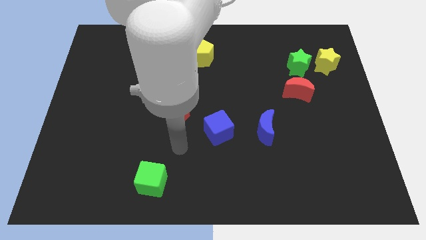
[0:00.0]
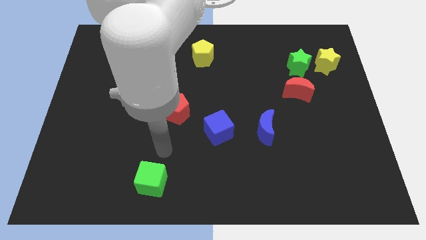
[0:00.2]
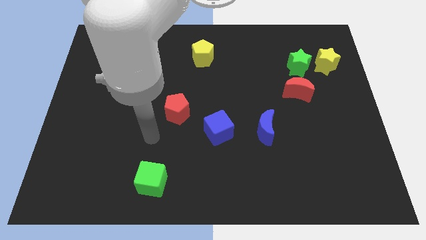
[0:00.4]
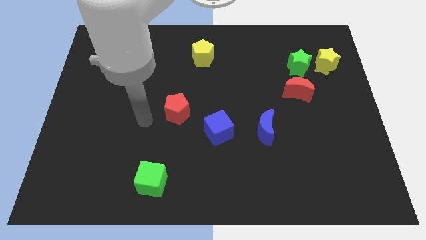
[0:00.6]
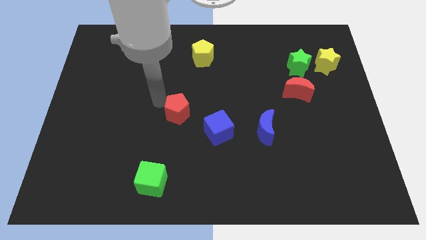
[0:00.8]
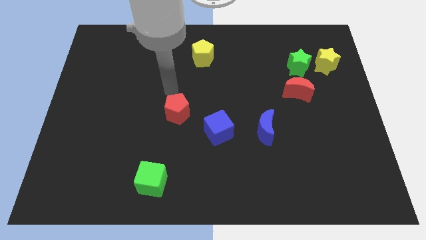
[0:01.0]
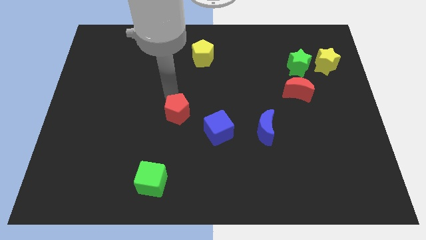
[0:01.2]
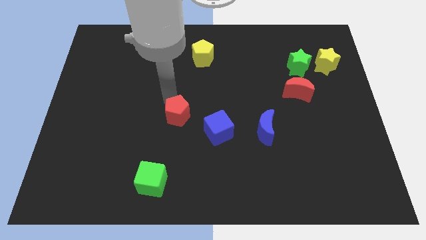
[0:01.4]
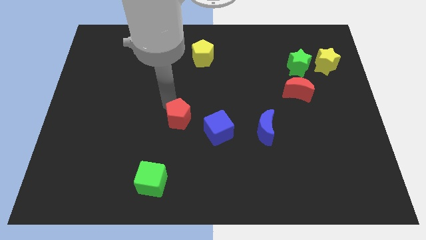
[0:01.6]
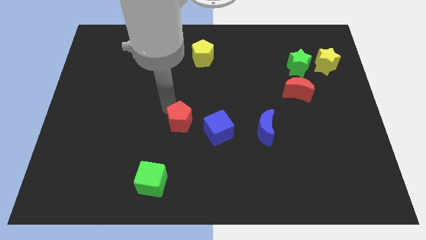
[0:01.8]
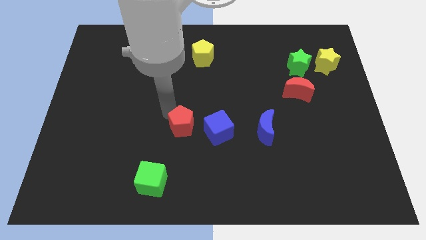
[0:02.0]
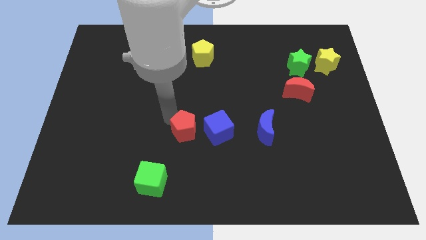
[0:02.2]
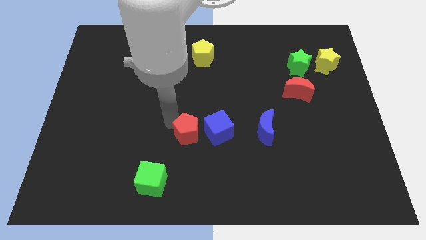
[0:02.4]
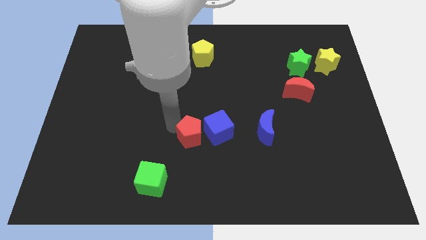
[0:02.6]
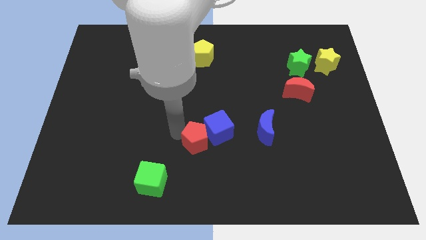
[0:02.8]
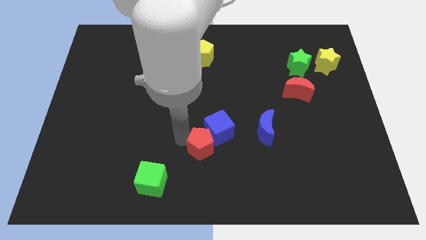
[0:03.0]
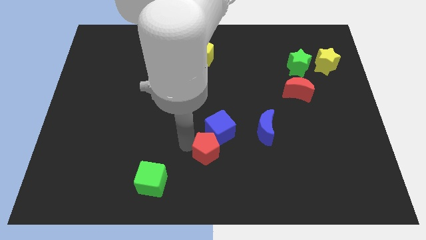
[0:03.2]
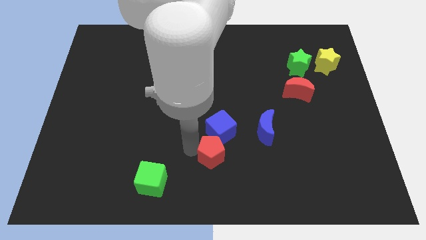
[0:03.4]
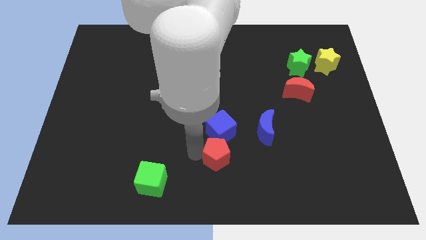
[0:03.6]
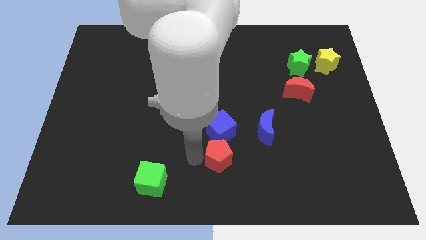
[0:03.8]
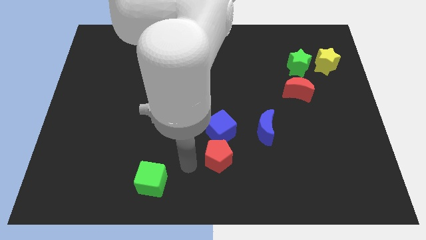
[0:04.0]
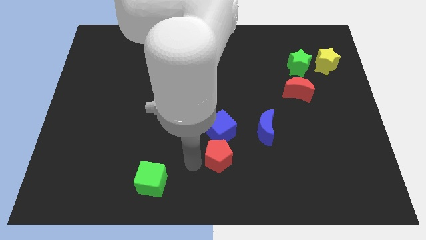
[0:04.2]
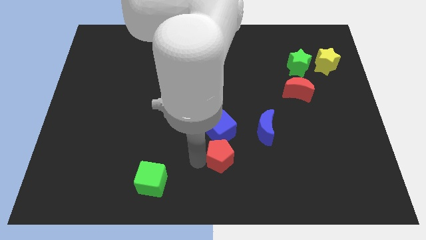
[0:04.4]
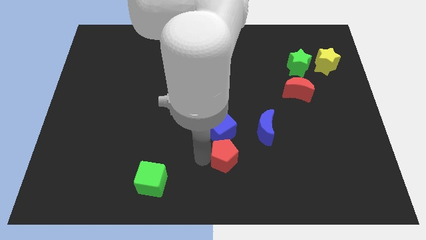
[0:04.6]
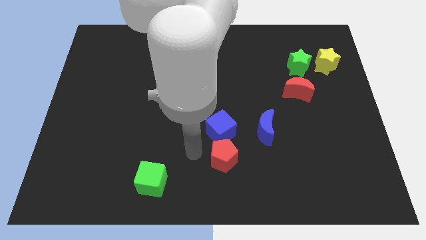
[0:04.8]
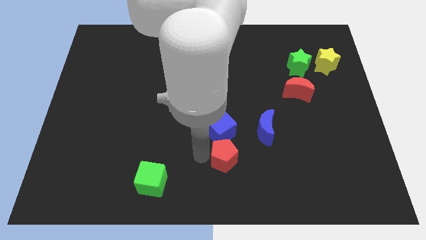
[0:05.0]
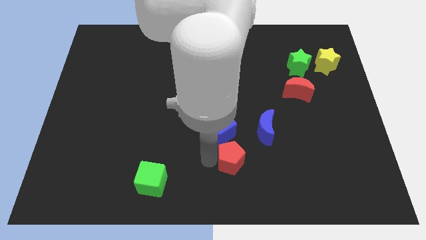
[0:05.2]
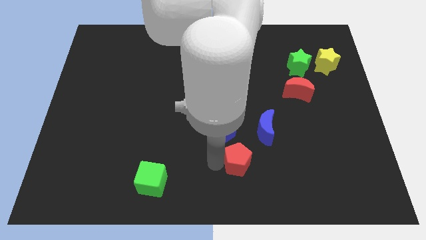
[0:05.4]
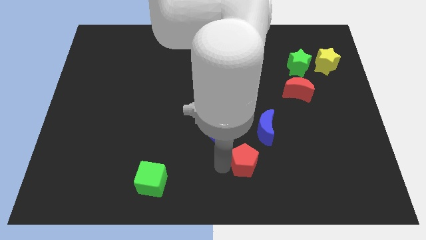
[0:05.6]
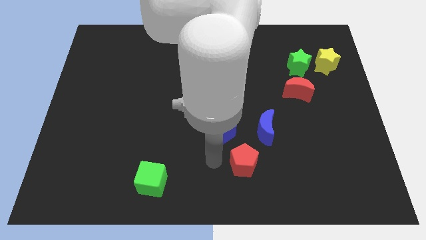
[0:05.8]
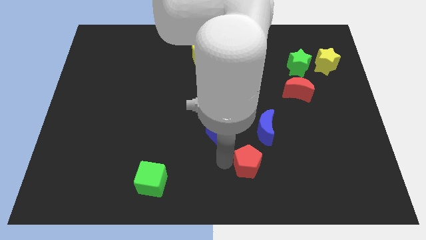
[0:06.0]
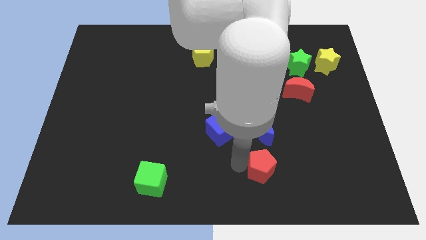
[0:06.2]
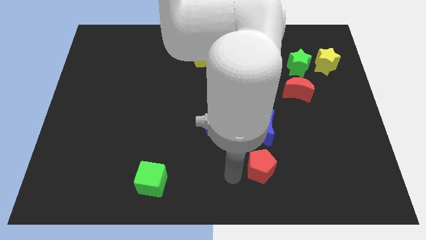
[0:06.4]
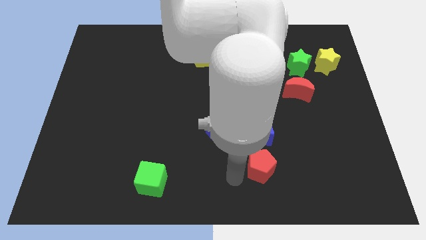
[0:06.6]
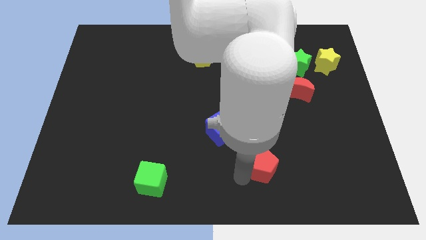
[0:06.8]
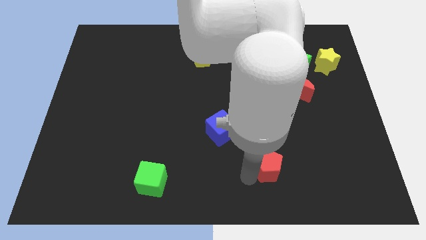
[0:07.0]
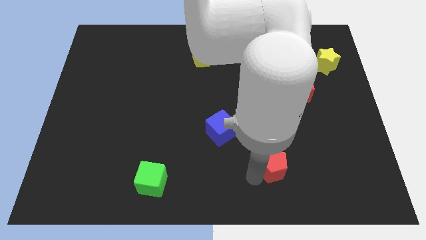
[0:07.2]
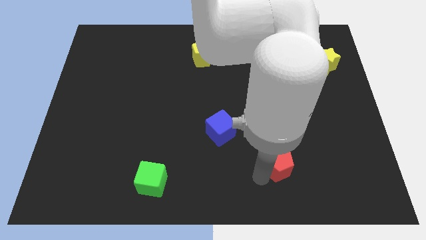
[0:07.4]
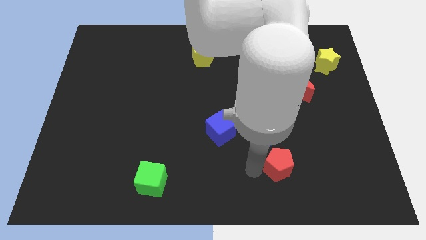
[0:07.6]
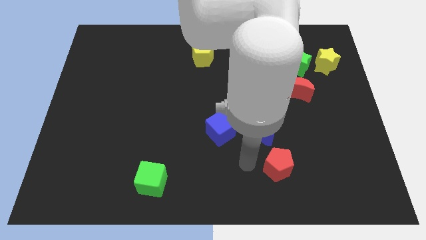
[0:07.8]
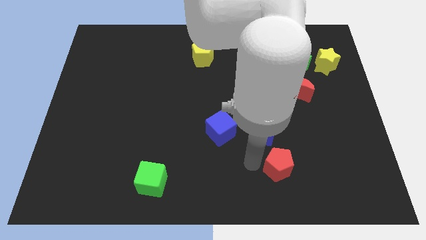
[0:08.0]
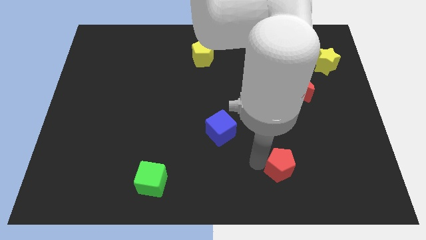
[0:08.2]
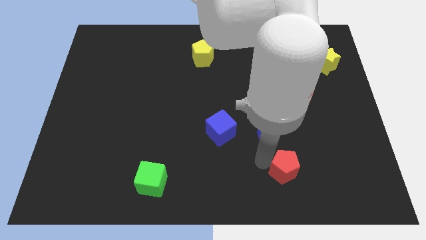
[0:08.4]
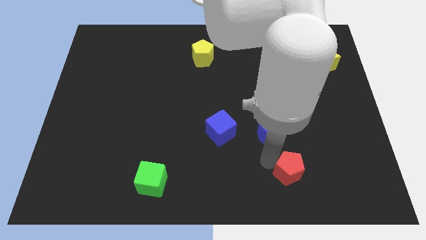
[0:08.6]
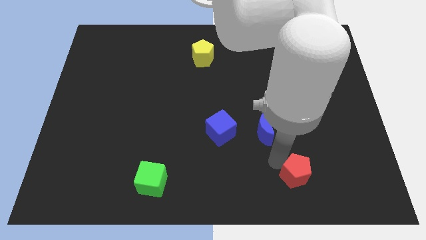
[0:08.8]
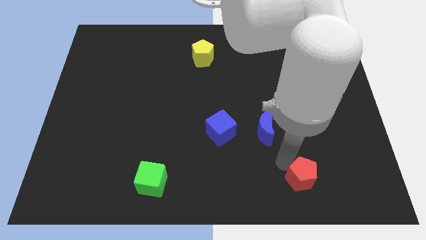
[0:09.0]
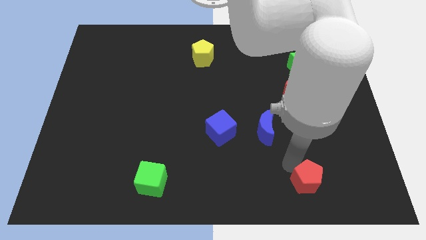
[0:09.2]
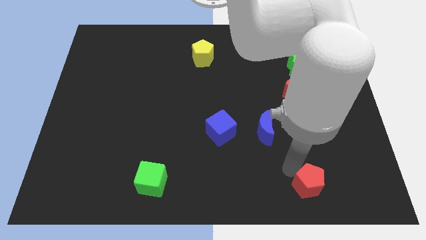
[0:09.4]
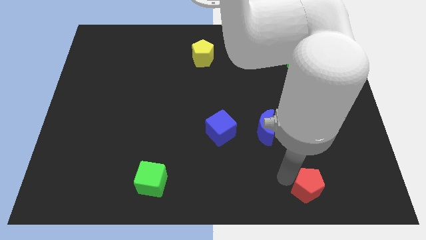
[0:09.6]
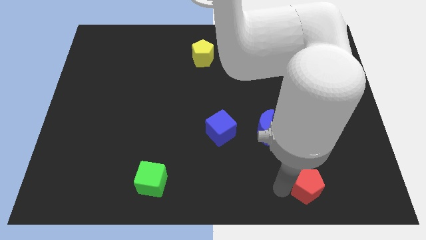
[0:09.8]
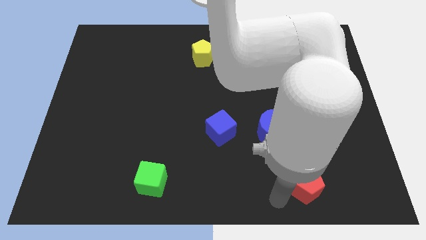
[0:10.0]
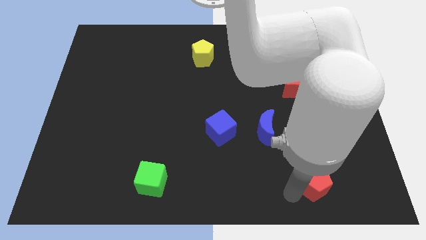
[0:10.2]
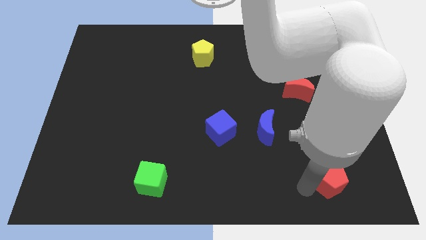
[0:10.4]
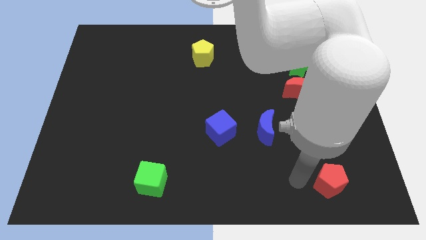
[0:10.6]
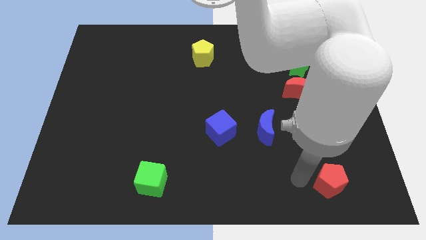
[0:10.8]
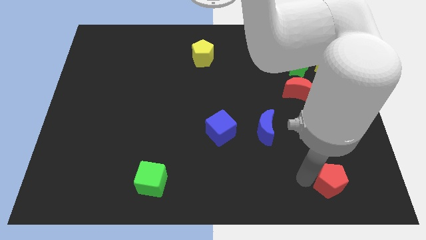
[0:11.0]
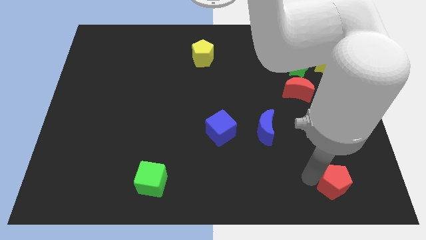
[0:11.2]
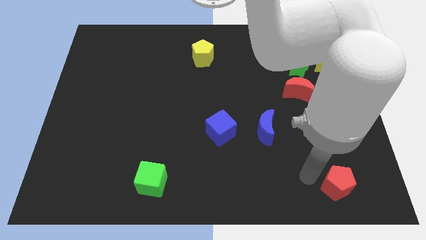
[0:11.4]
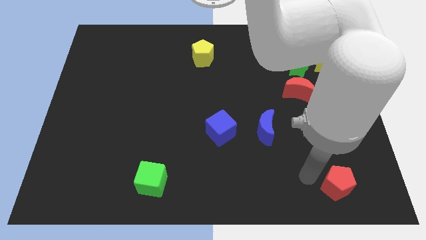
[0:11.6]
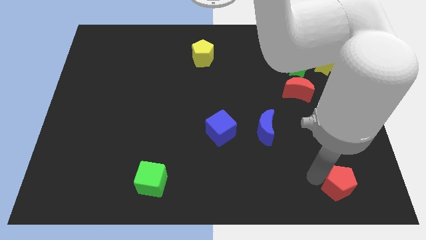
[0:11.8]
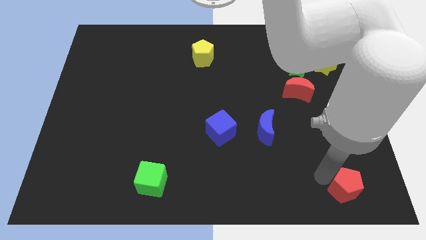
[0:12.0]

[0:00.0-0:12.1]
put the red pentagon to the lower right corner

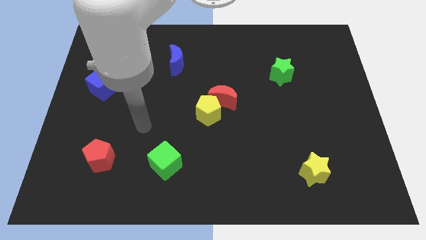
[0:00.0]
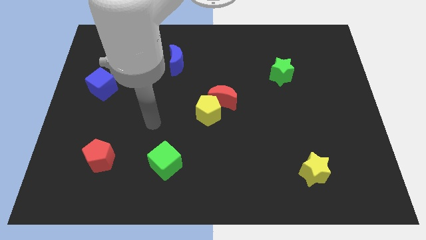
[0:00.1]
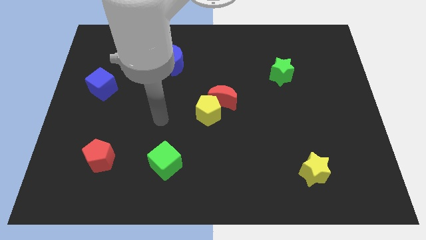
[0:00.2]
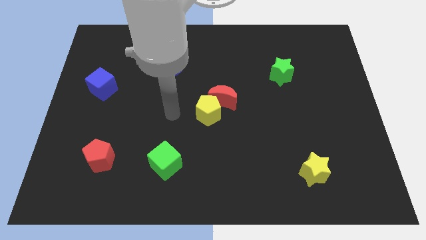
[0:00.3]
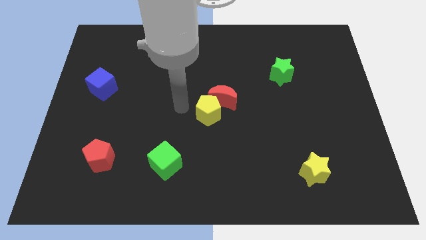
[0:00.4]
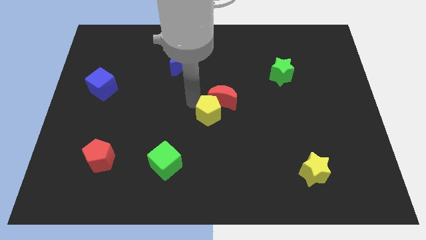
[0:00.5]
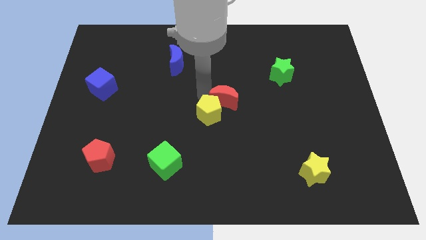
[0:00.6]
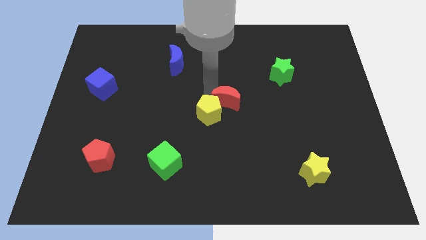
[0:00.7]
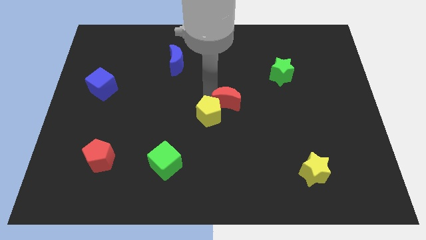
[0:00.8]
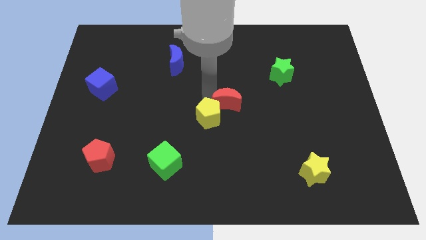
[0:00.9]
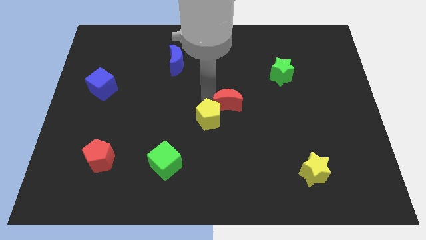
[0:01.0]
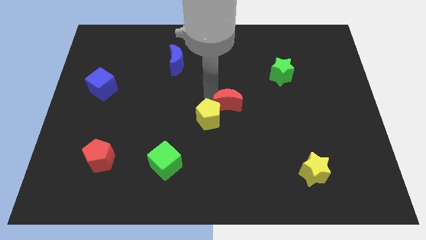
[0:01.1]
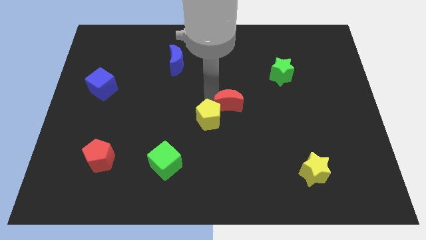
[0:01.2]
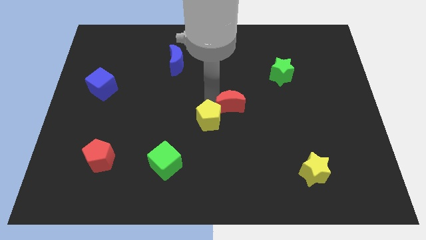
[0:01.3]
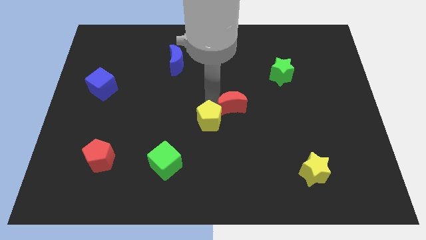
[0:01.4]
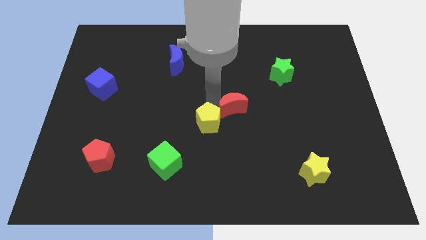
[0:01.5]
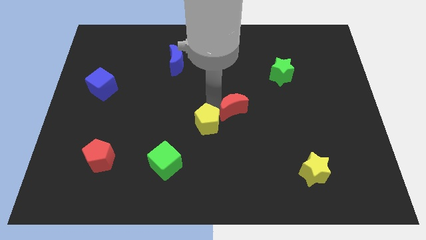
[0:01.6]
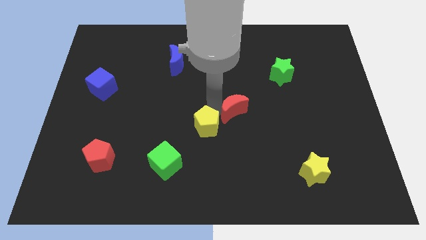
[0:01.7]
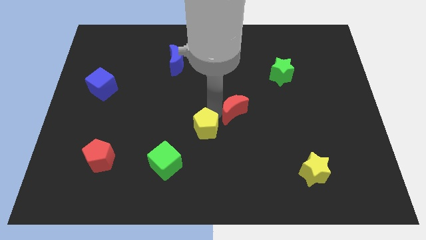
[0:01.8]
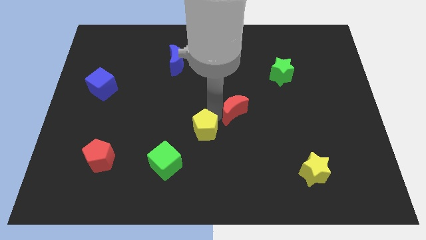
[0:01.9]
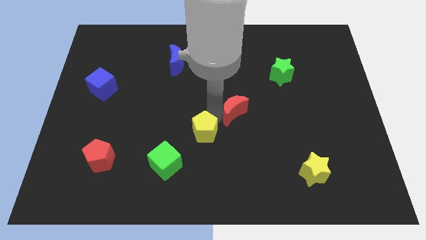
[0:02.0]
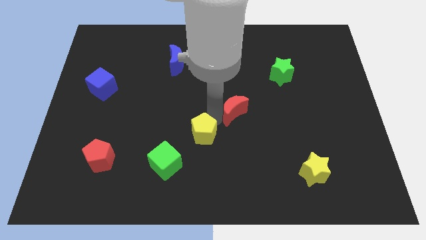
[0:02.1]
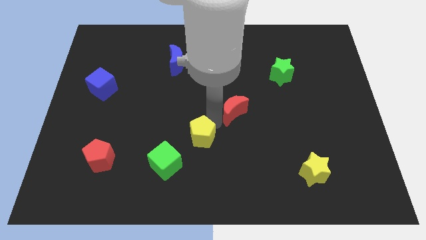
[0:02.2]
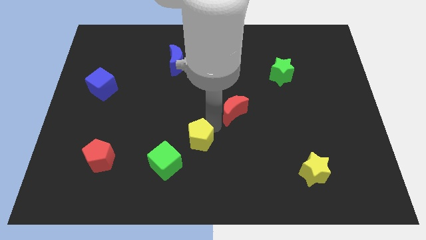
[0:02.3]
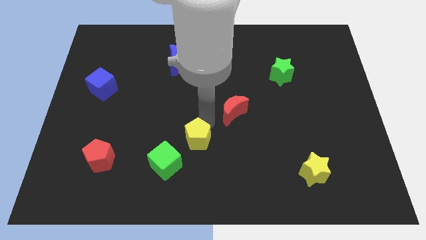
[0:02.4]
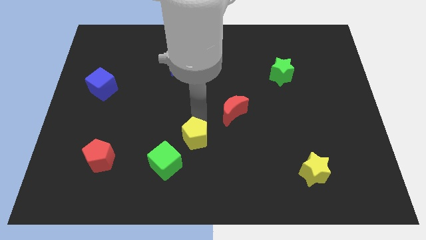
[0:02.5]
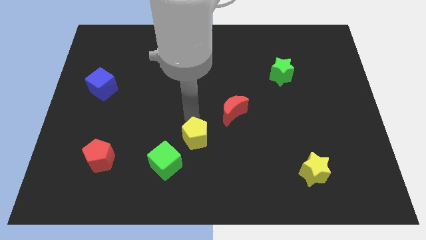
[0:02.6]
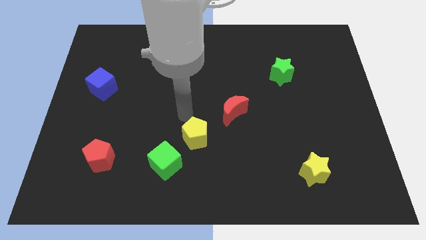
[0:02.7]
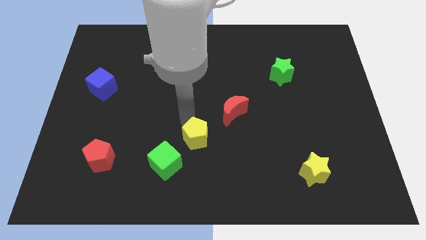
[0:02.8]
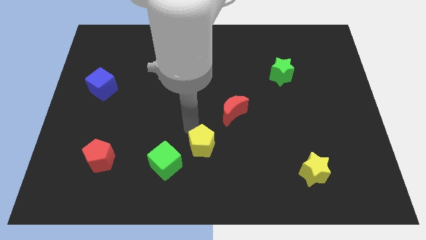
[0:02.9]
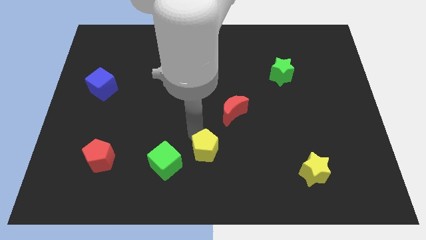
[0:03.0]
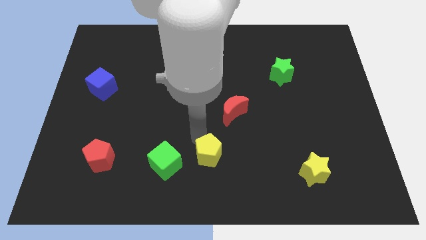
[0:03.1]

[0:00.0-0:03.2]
slide the yellow pentagon to the bottom side
